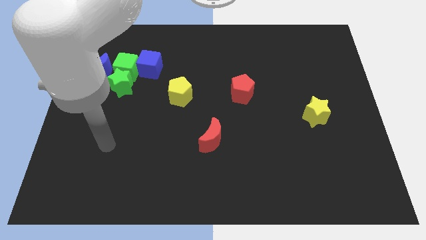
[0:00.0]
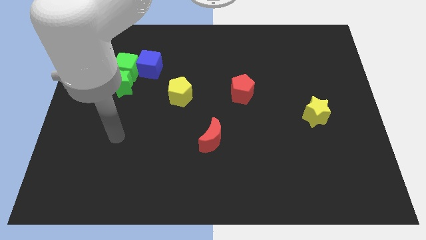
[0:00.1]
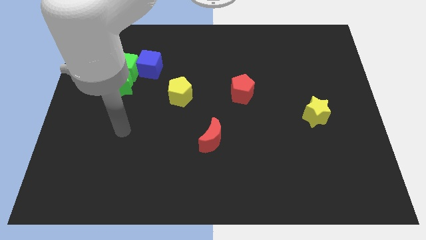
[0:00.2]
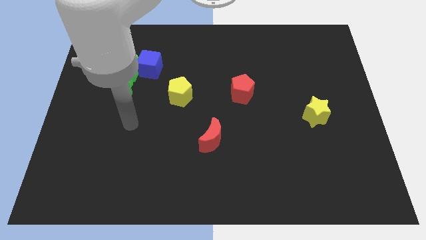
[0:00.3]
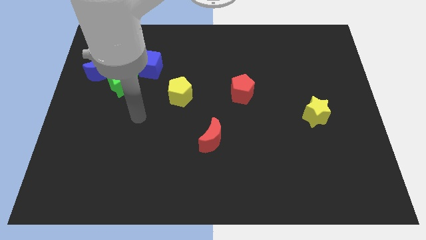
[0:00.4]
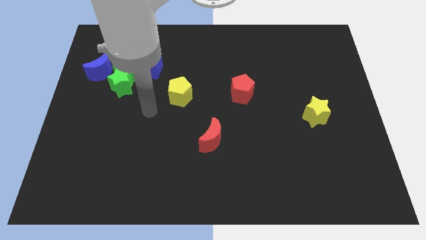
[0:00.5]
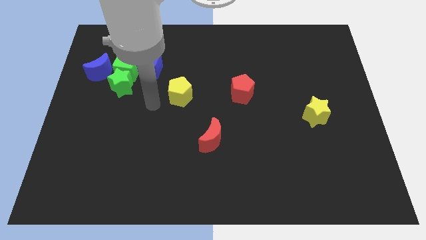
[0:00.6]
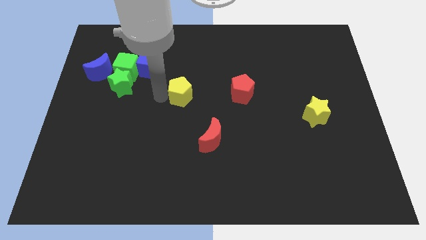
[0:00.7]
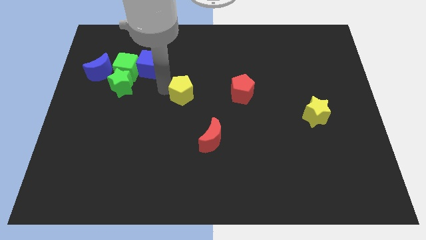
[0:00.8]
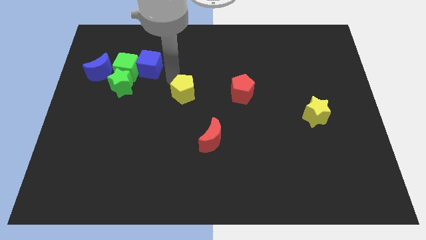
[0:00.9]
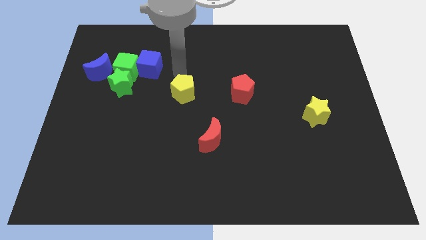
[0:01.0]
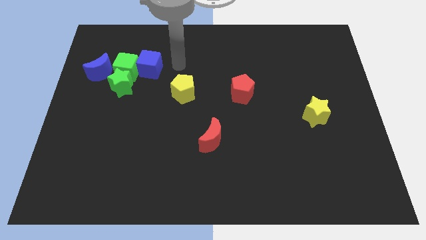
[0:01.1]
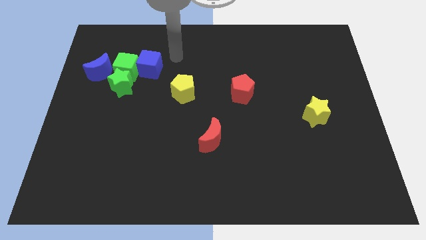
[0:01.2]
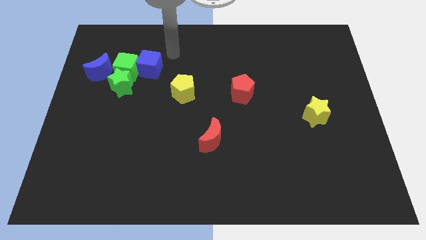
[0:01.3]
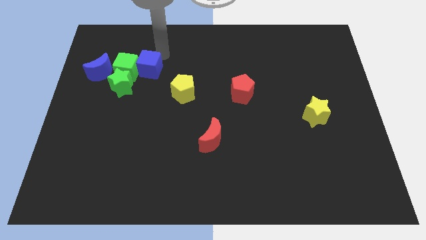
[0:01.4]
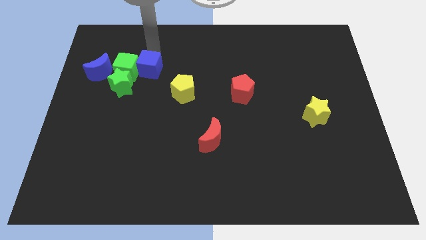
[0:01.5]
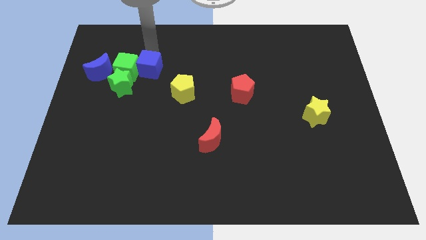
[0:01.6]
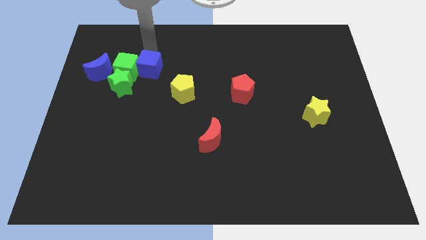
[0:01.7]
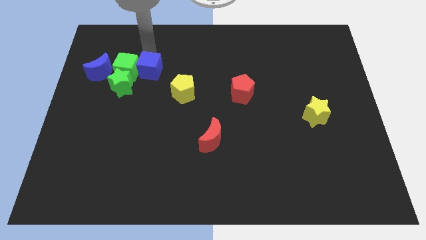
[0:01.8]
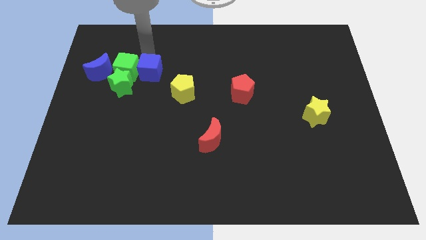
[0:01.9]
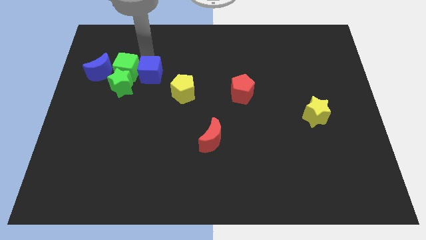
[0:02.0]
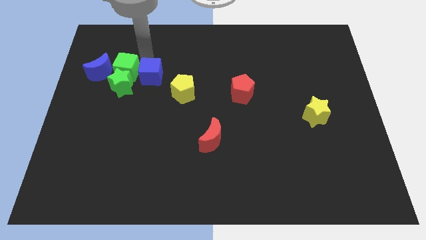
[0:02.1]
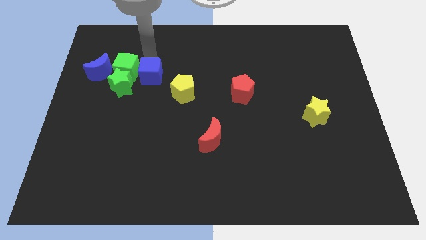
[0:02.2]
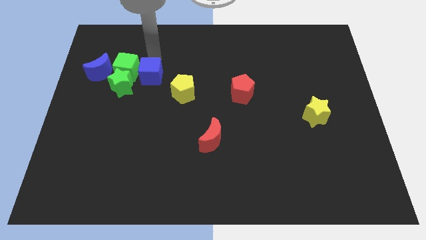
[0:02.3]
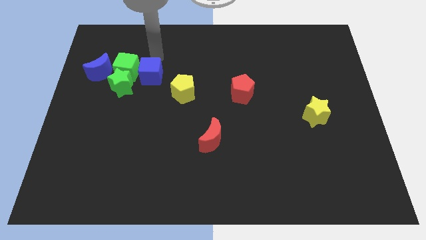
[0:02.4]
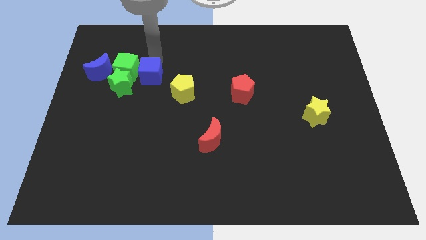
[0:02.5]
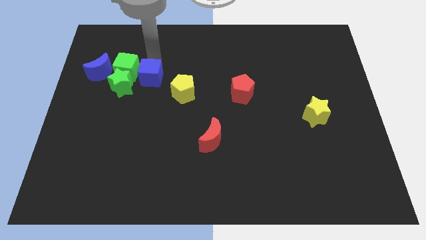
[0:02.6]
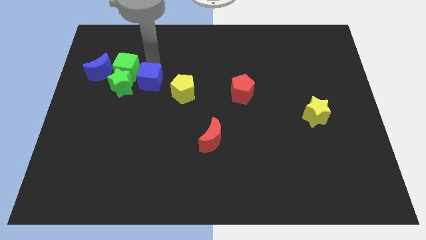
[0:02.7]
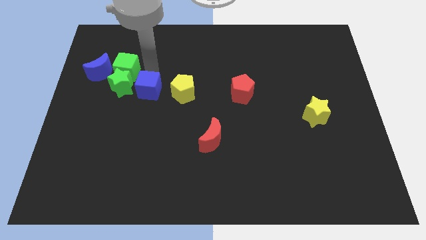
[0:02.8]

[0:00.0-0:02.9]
slightly move the blue cube downwards

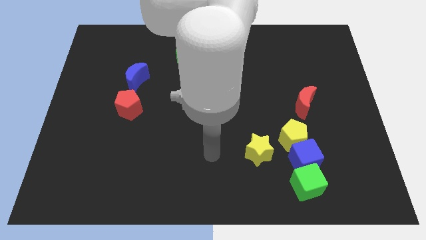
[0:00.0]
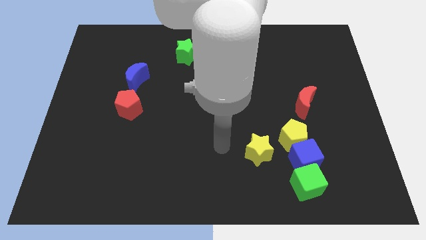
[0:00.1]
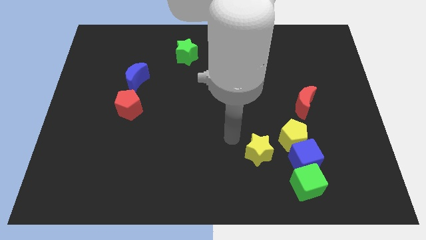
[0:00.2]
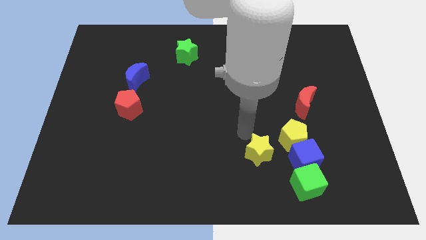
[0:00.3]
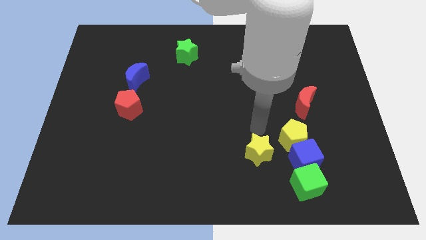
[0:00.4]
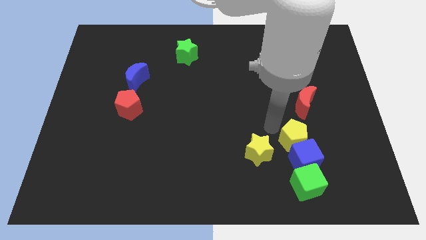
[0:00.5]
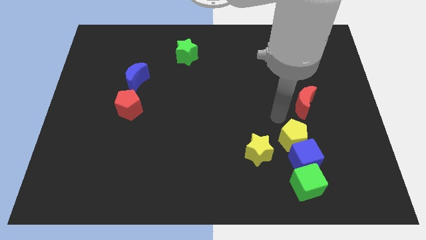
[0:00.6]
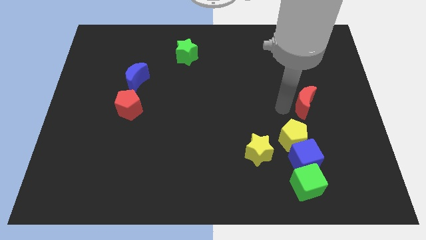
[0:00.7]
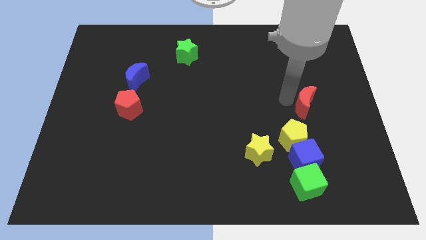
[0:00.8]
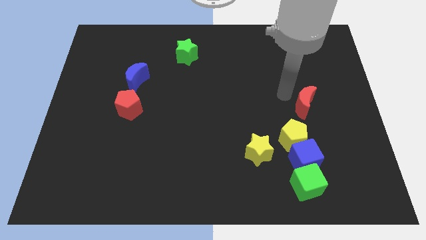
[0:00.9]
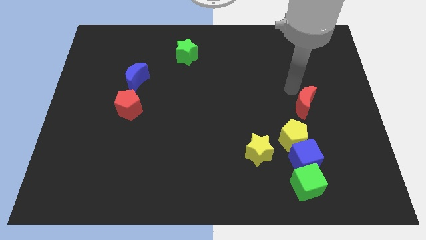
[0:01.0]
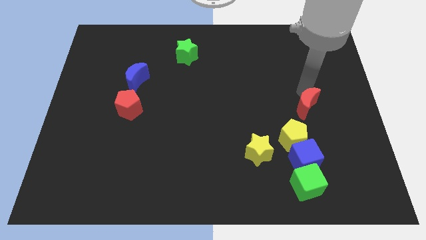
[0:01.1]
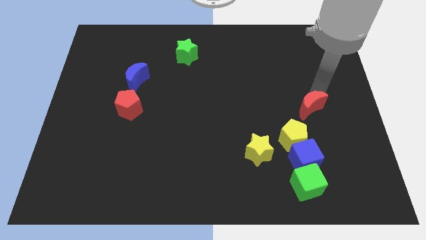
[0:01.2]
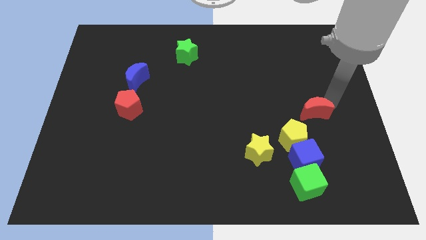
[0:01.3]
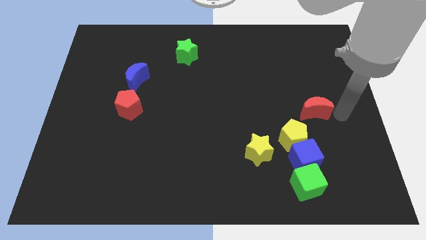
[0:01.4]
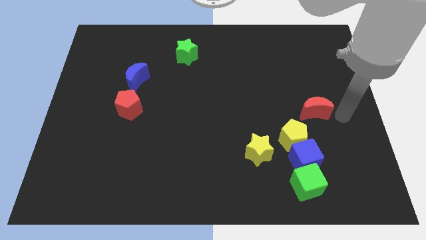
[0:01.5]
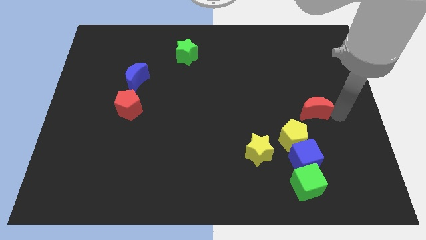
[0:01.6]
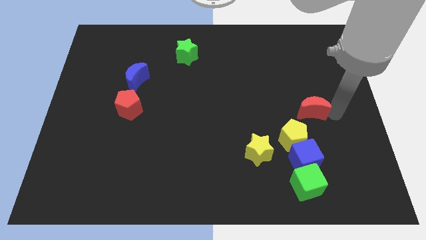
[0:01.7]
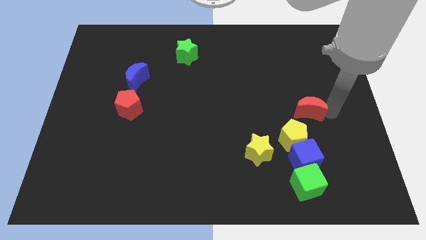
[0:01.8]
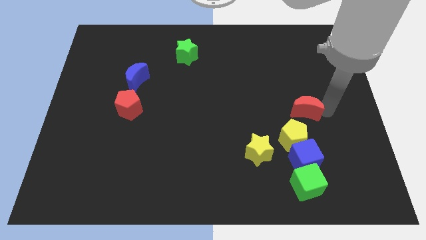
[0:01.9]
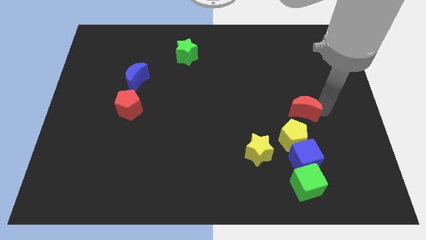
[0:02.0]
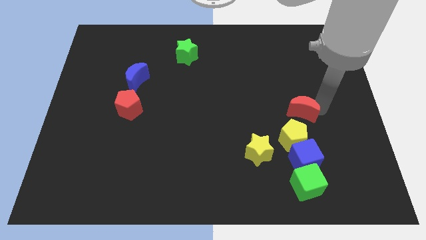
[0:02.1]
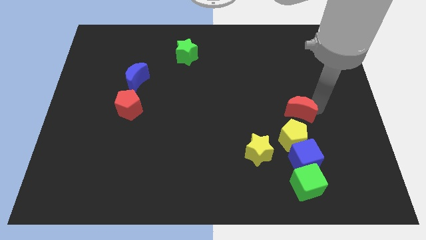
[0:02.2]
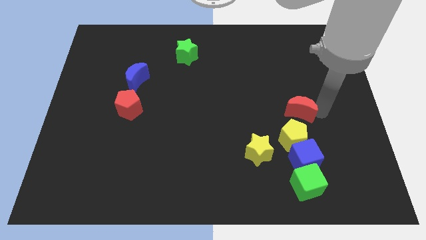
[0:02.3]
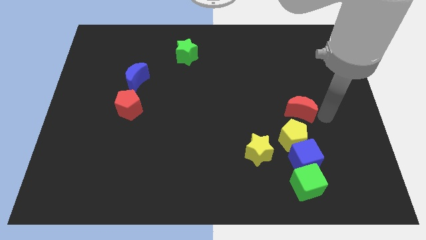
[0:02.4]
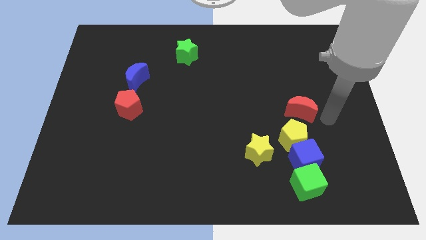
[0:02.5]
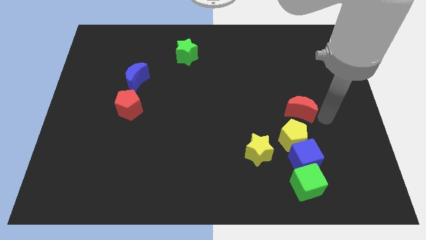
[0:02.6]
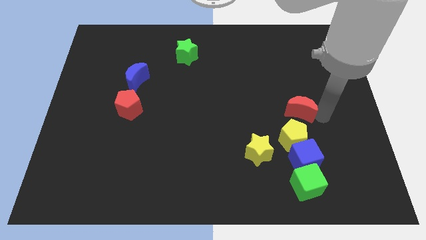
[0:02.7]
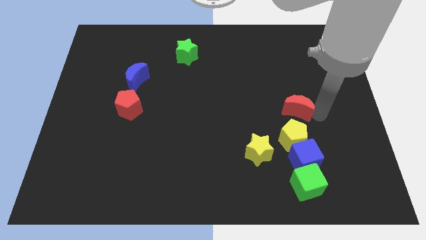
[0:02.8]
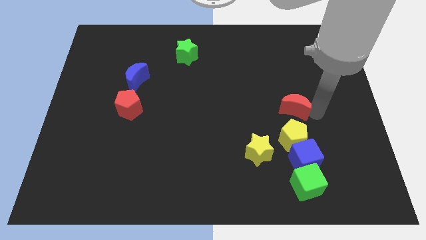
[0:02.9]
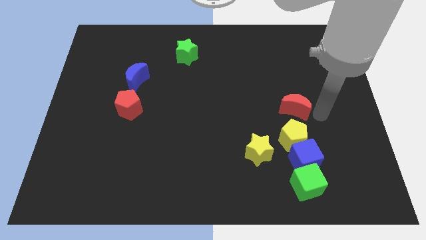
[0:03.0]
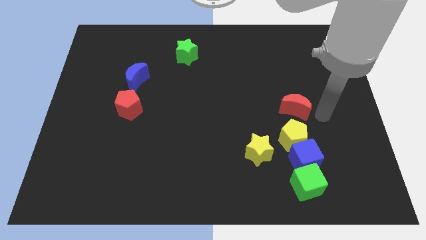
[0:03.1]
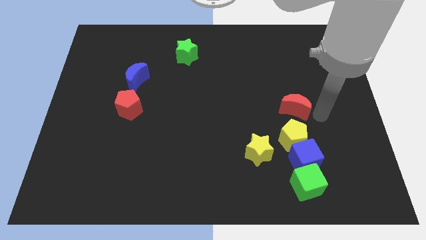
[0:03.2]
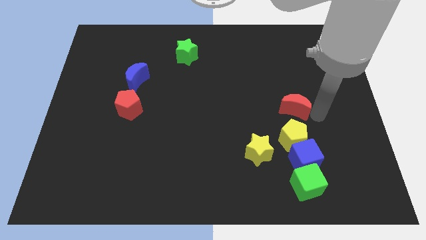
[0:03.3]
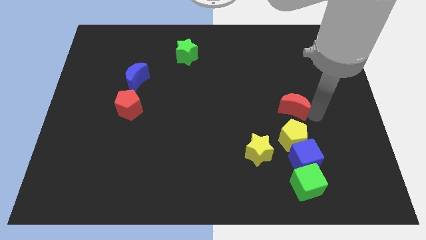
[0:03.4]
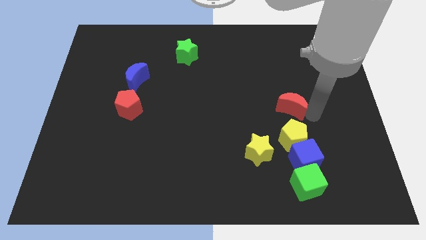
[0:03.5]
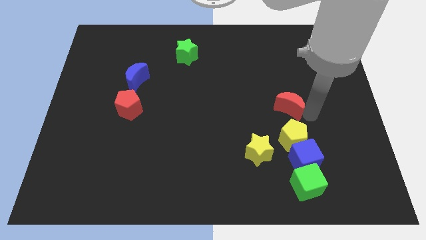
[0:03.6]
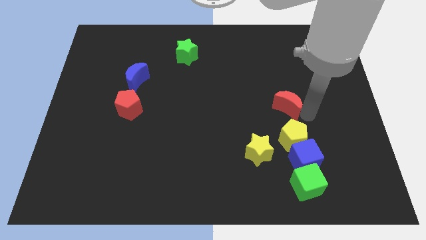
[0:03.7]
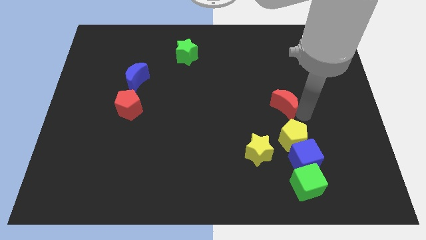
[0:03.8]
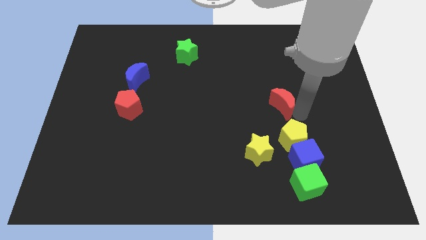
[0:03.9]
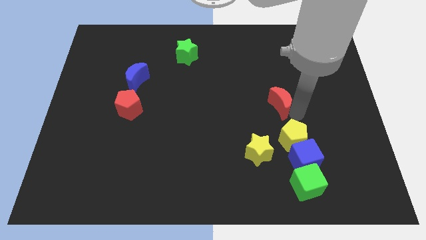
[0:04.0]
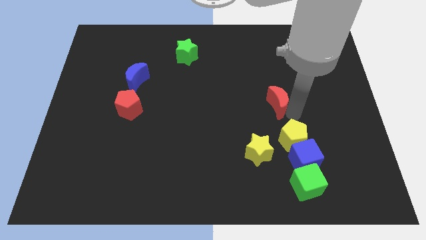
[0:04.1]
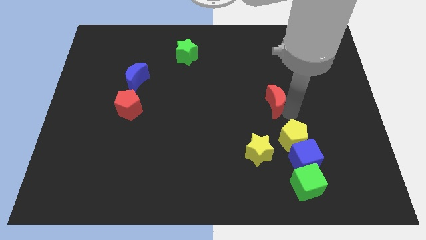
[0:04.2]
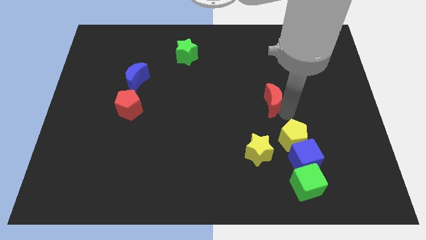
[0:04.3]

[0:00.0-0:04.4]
move the red moon to the left a little bit

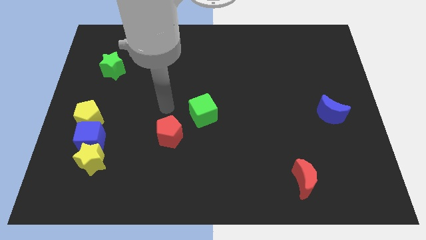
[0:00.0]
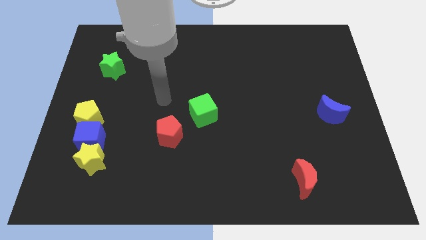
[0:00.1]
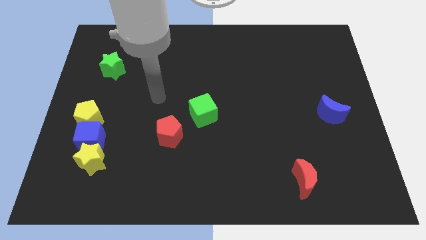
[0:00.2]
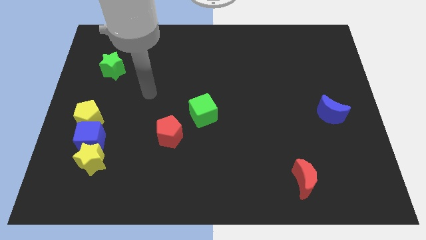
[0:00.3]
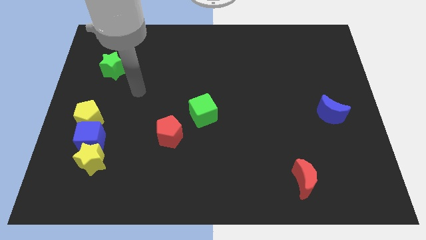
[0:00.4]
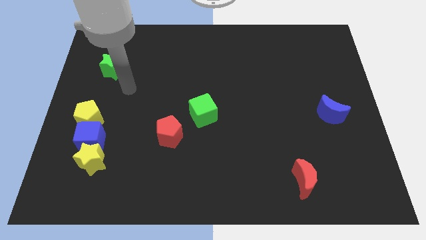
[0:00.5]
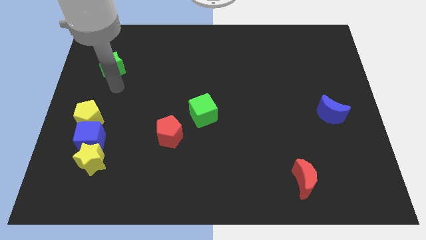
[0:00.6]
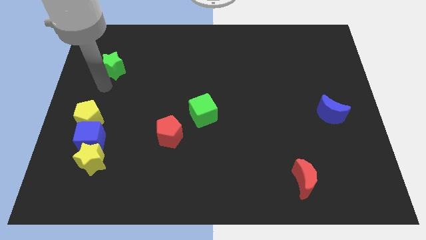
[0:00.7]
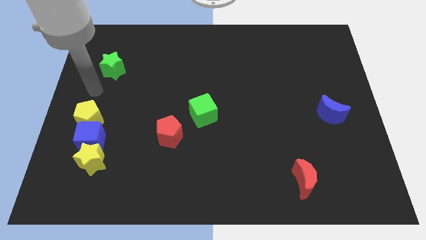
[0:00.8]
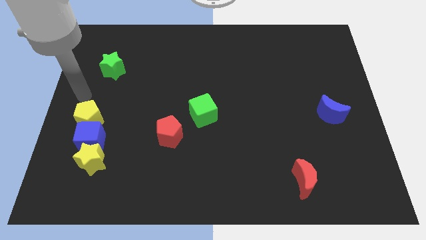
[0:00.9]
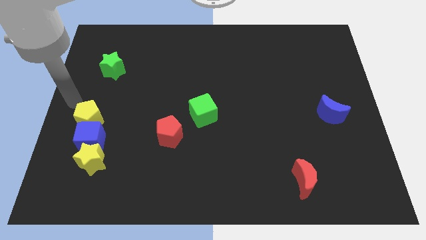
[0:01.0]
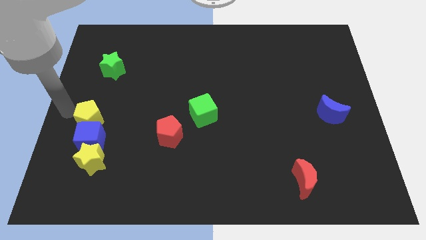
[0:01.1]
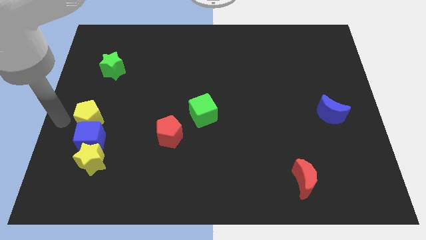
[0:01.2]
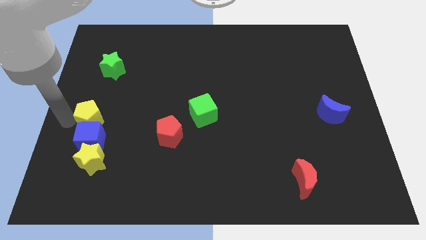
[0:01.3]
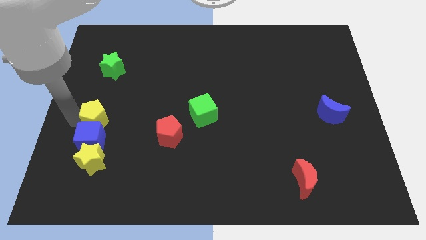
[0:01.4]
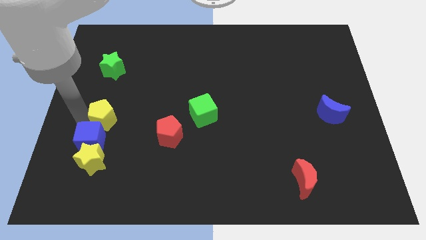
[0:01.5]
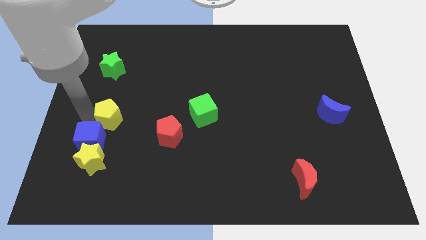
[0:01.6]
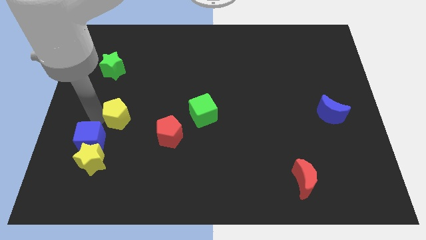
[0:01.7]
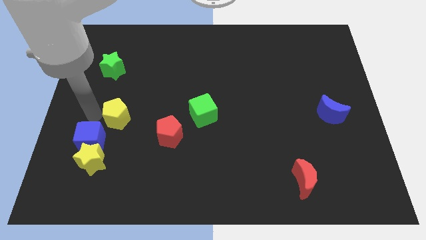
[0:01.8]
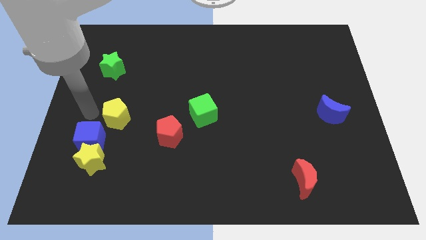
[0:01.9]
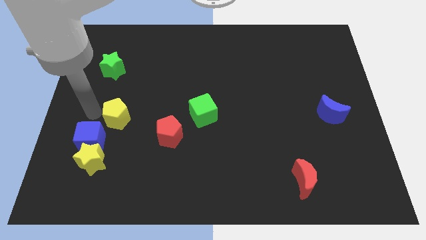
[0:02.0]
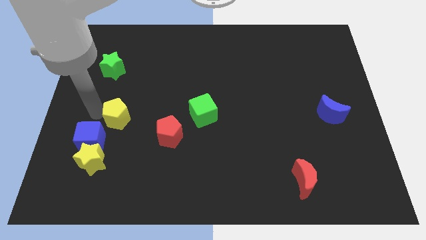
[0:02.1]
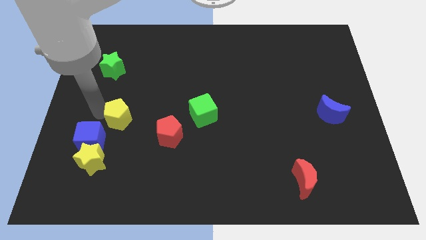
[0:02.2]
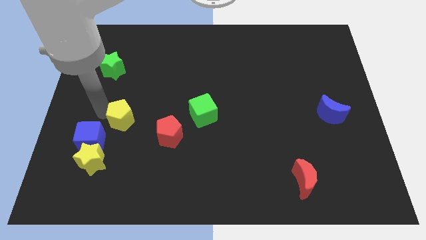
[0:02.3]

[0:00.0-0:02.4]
slide the yellow pentagon right a little bit
